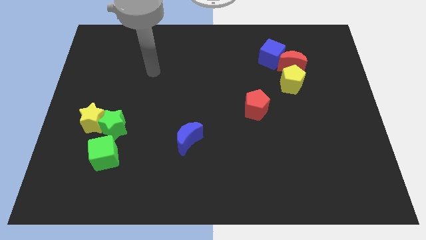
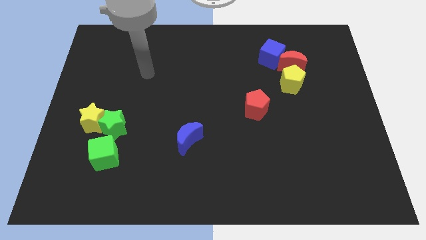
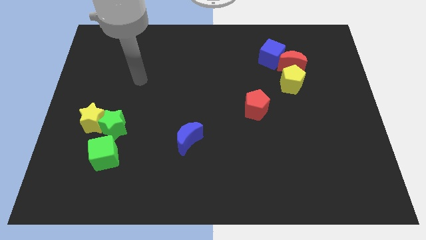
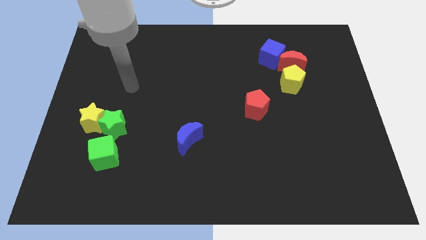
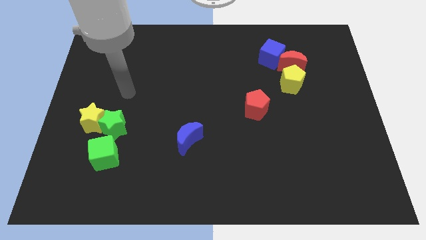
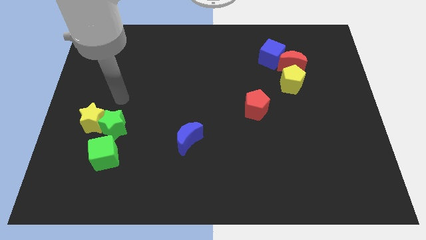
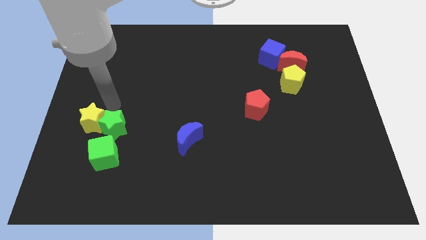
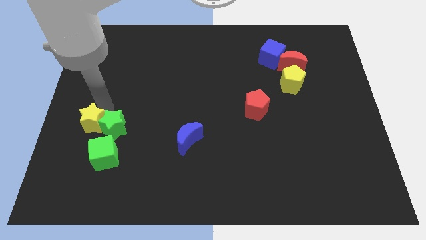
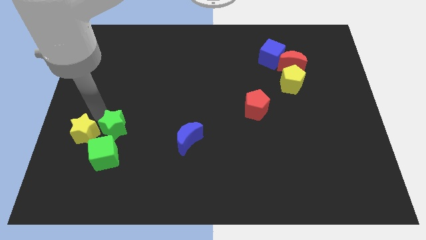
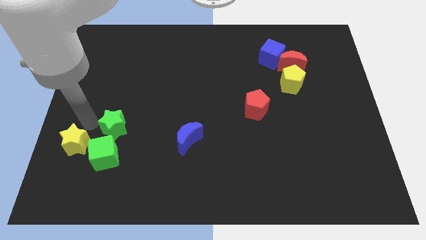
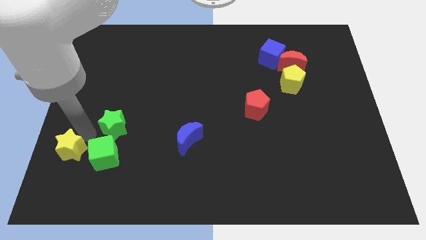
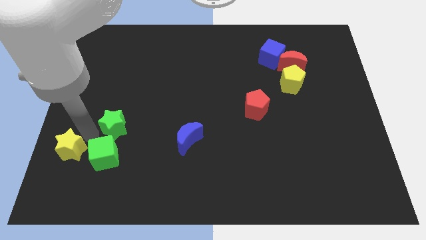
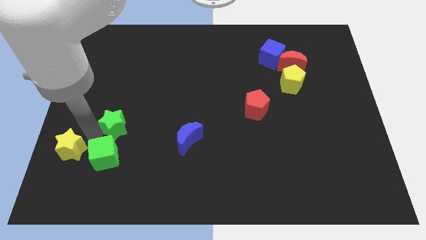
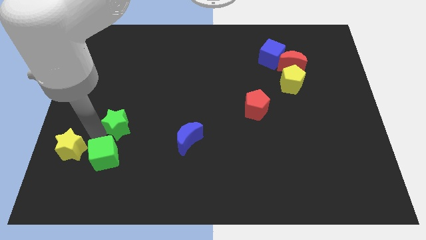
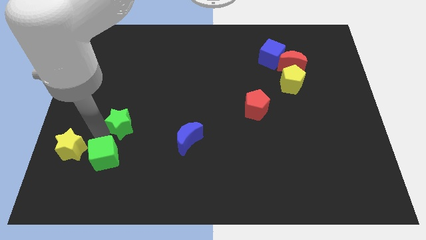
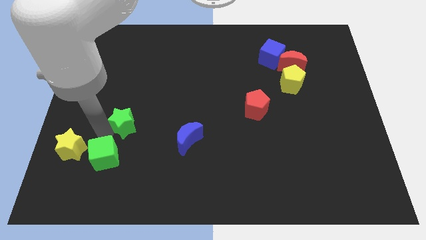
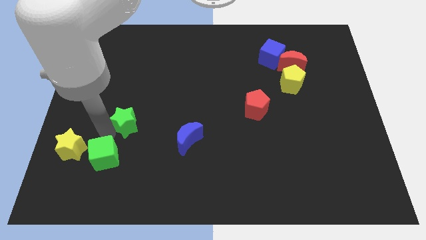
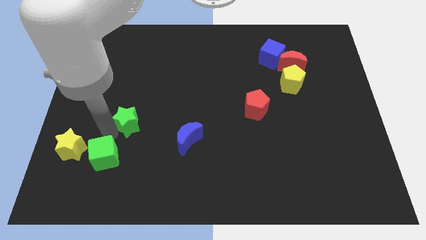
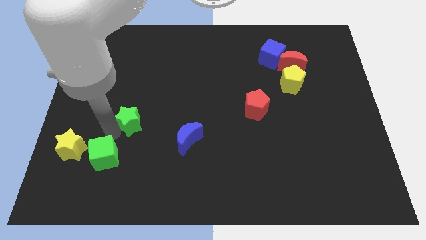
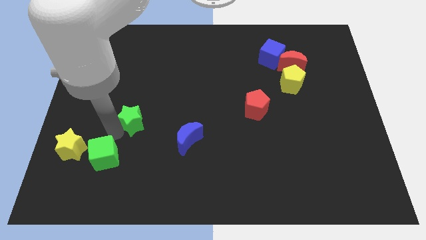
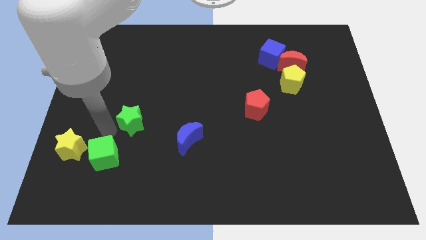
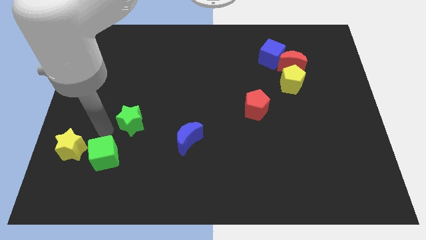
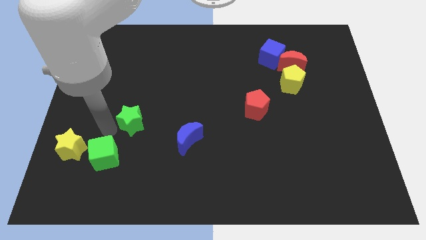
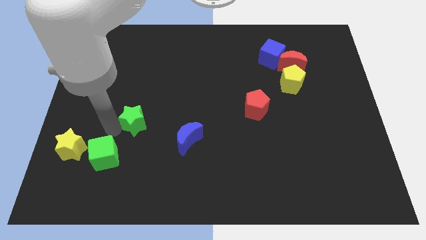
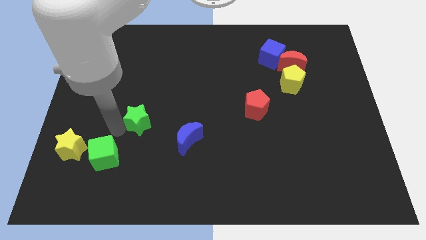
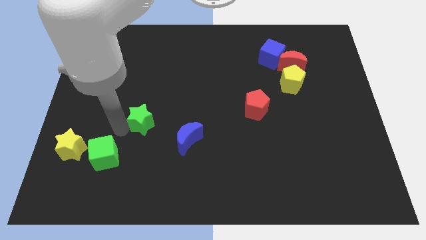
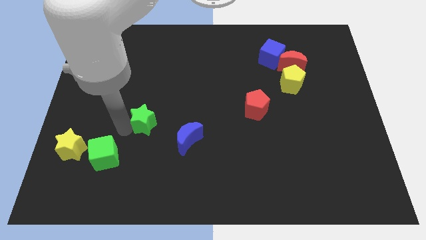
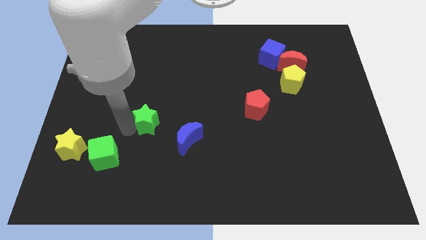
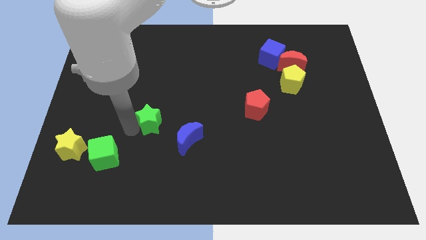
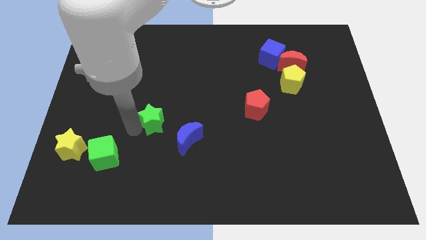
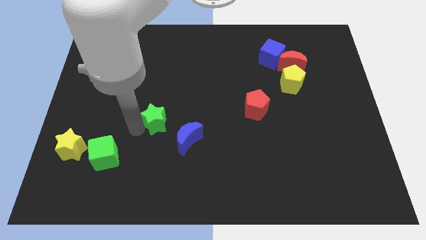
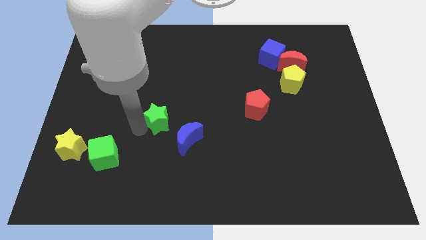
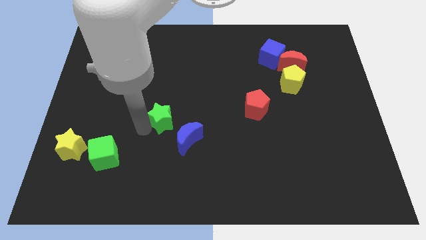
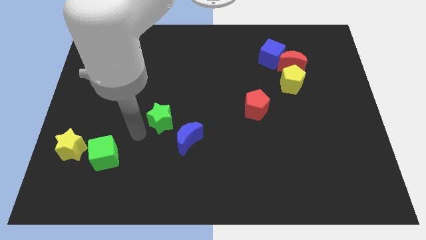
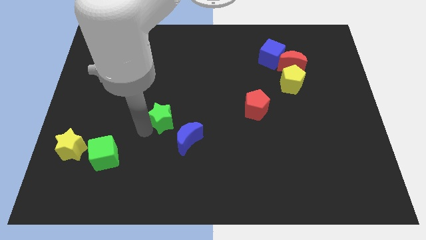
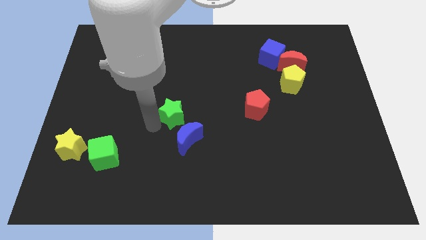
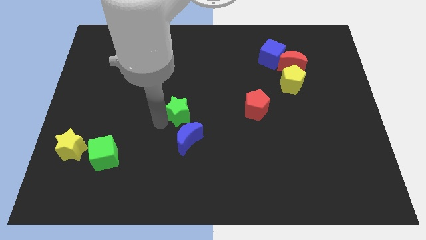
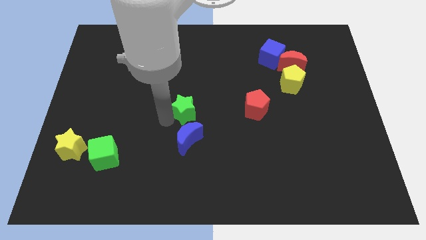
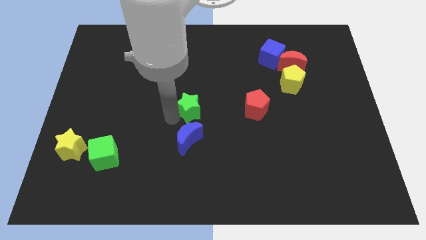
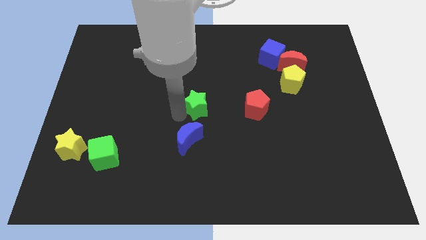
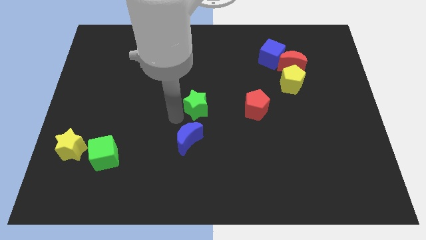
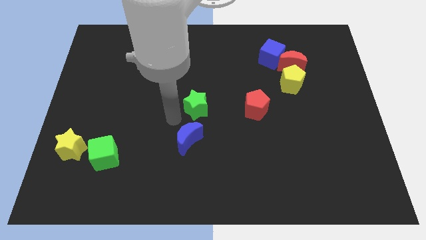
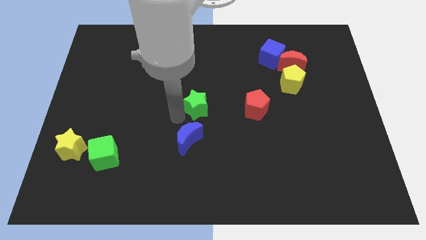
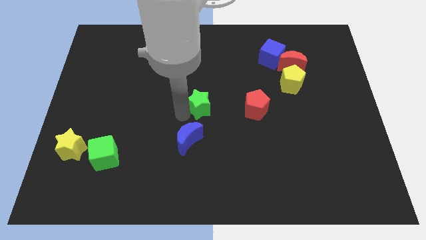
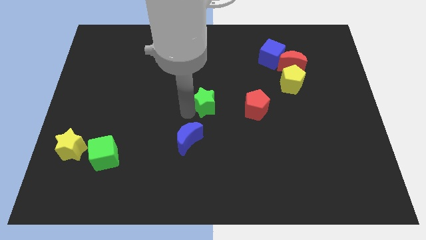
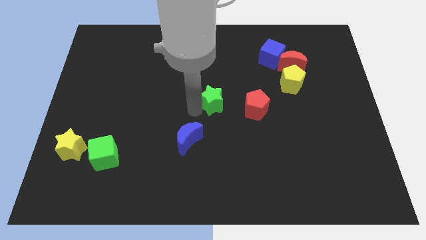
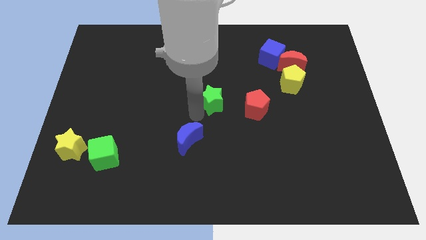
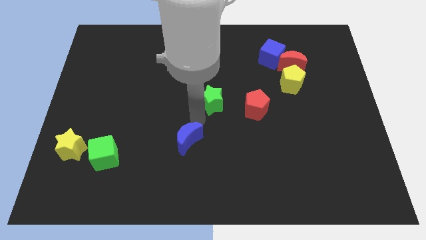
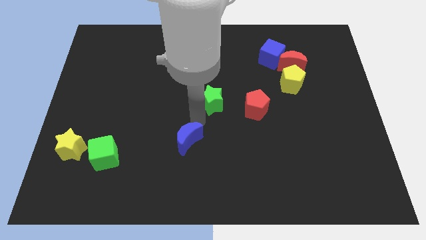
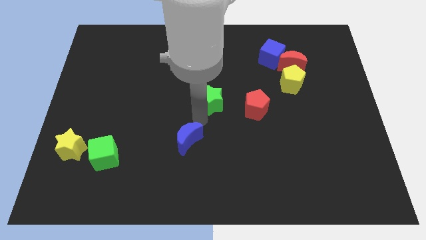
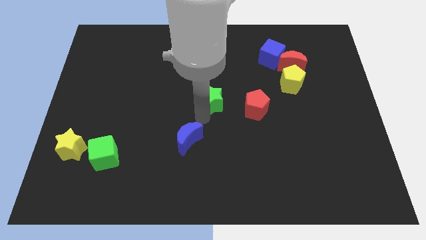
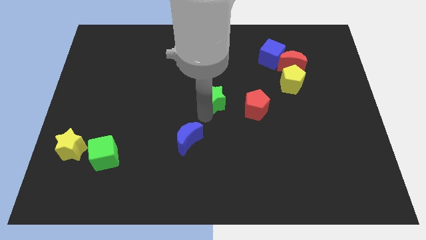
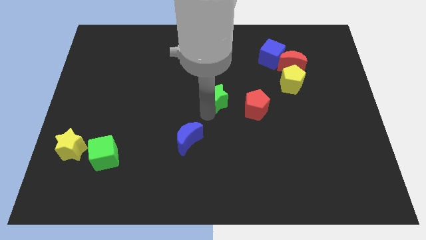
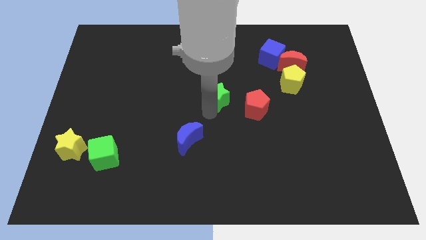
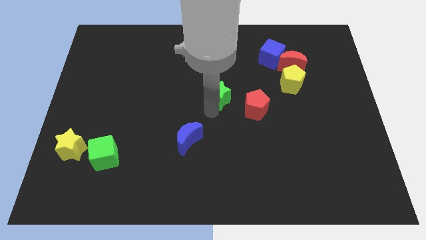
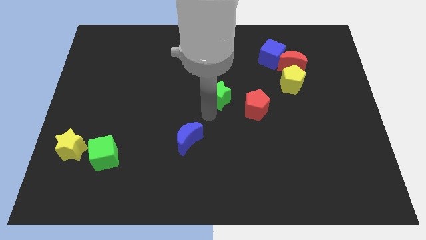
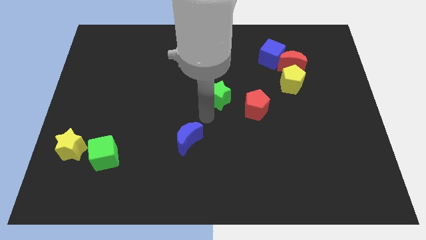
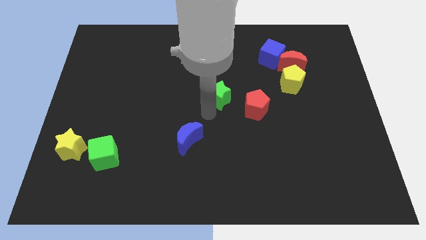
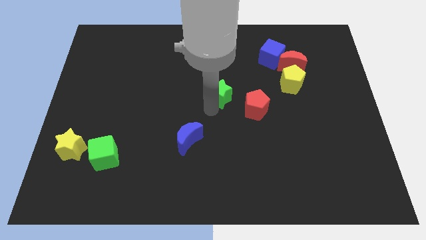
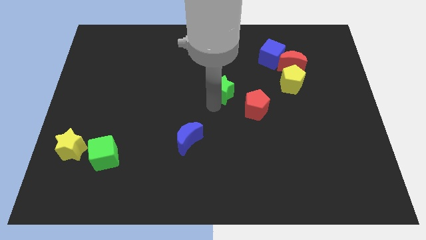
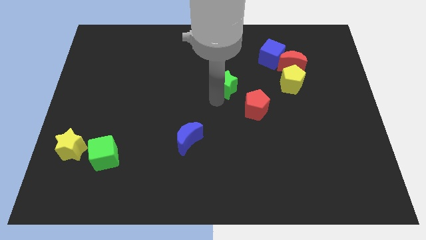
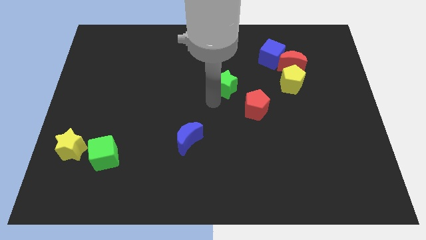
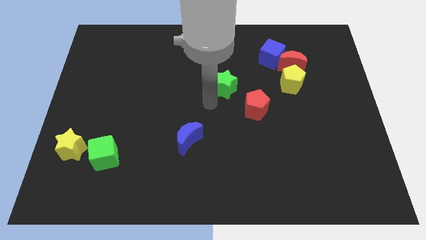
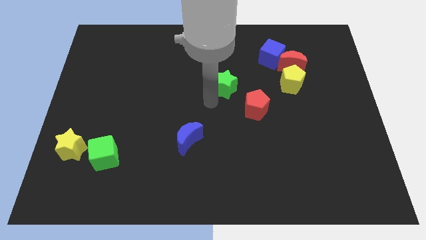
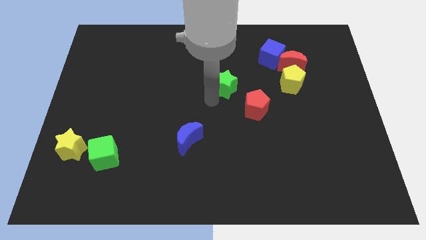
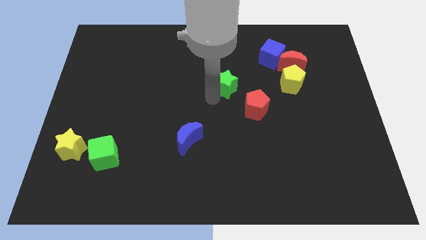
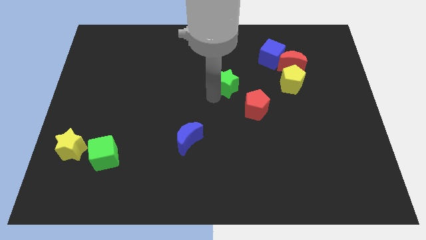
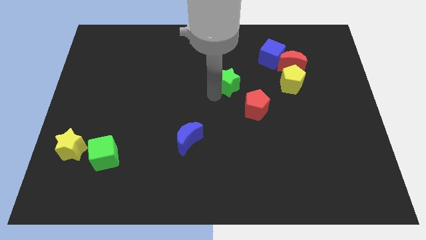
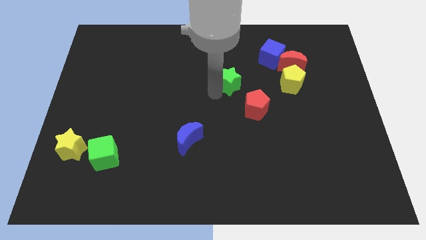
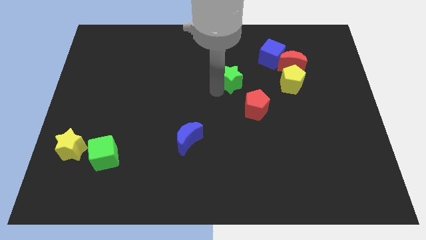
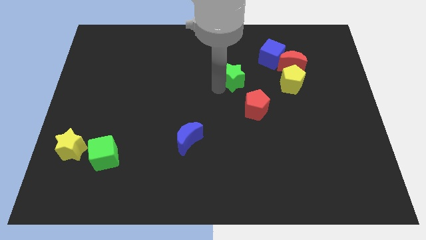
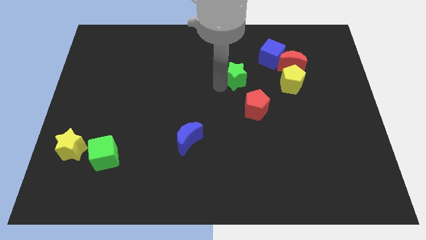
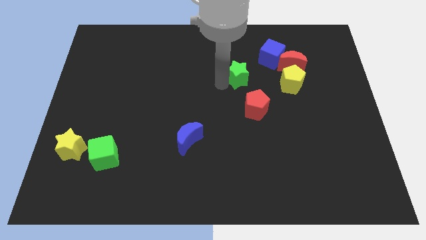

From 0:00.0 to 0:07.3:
push the green star to the left of the red moon

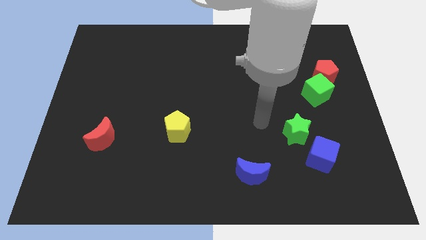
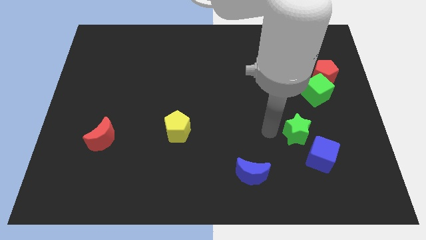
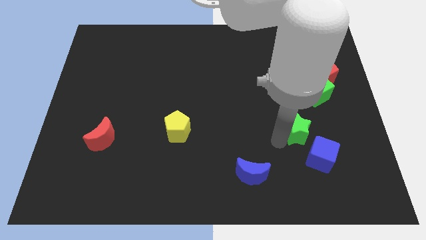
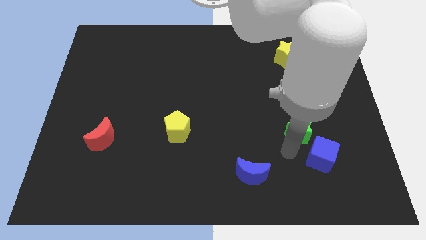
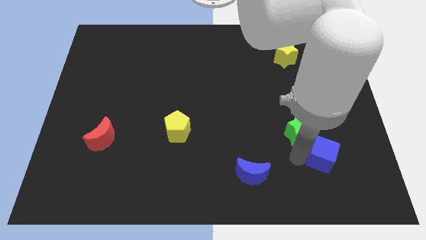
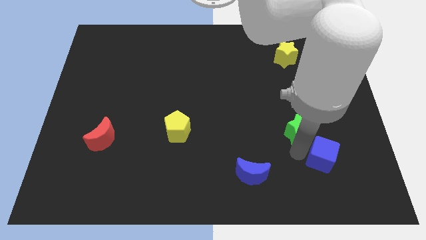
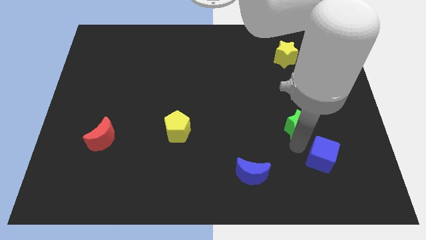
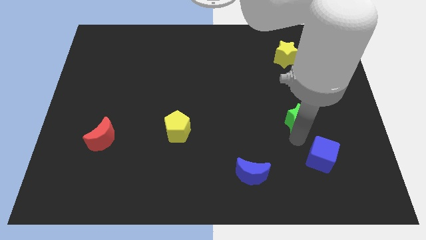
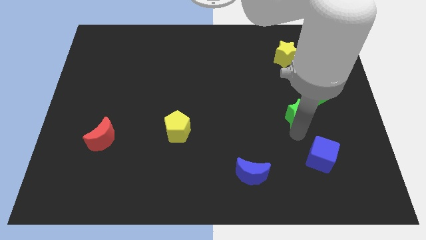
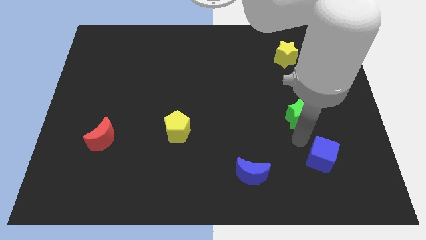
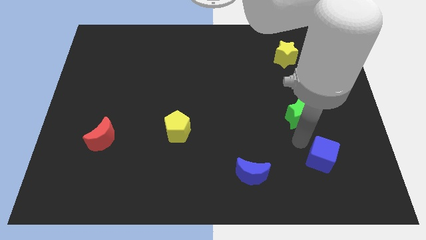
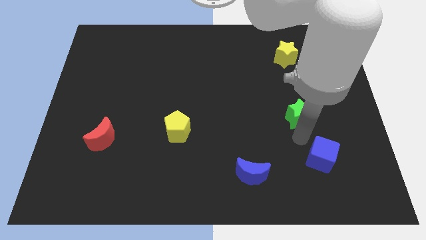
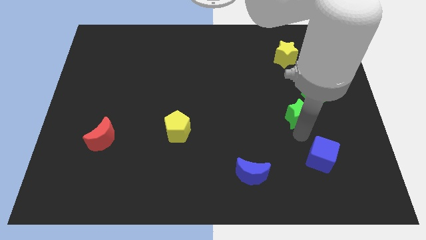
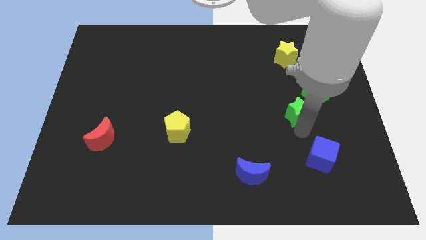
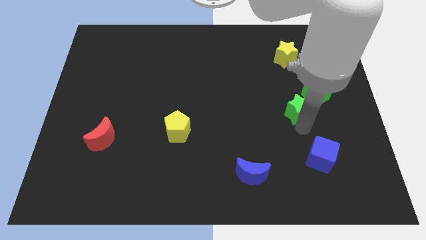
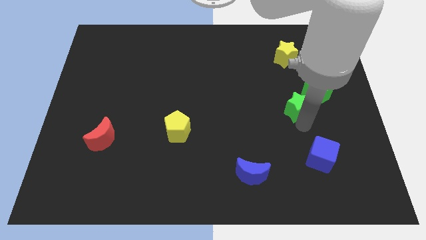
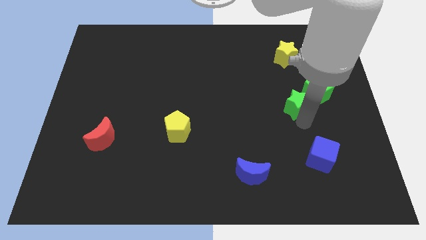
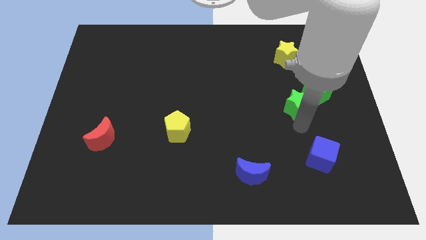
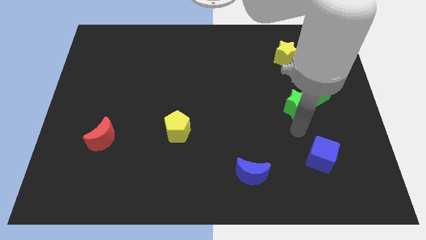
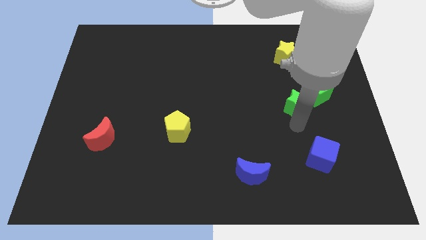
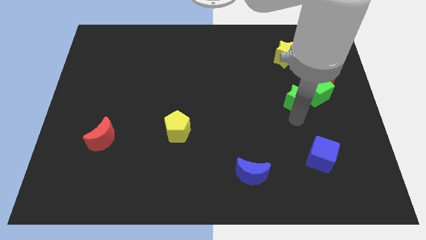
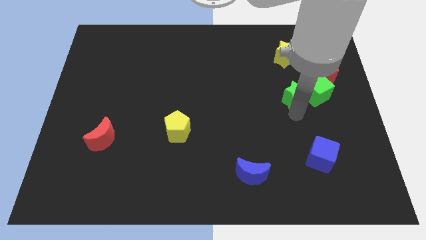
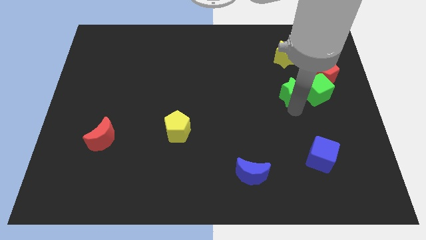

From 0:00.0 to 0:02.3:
push the green star diagonally up and to the left of the green cube
